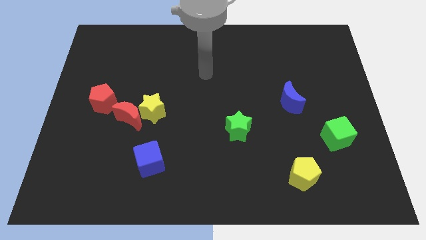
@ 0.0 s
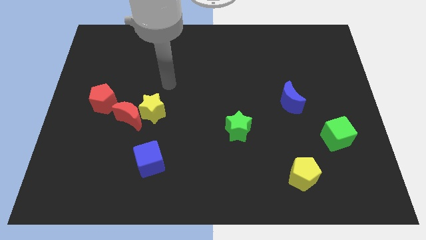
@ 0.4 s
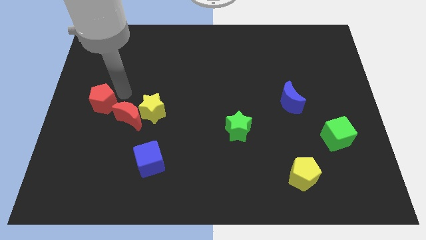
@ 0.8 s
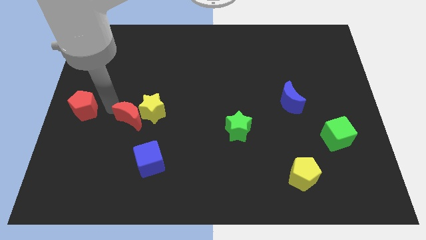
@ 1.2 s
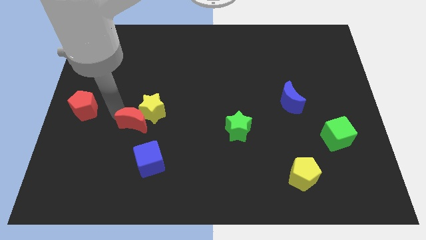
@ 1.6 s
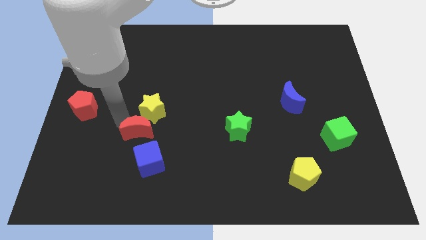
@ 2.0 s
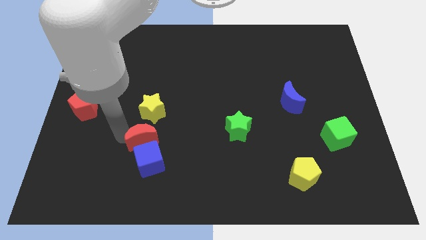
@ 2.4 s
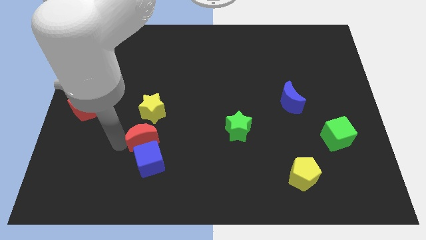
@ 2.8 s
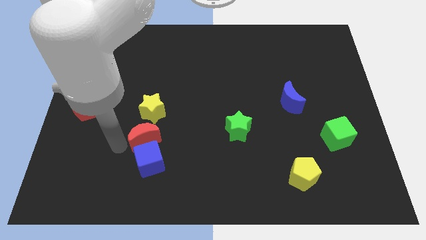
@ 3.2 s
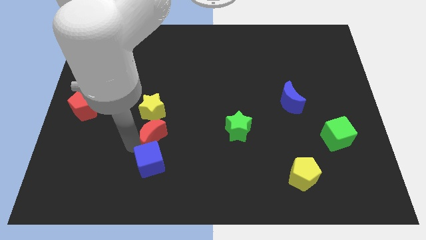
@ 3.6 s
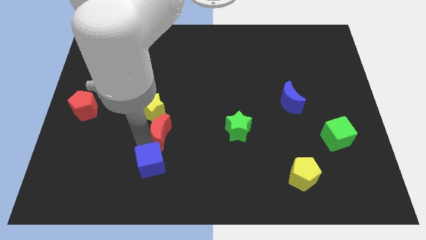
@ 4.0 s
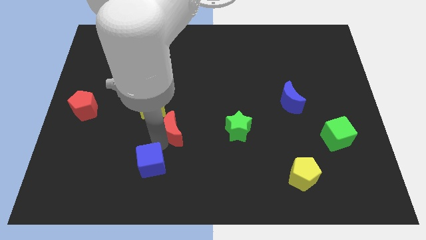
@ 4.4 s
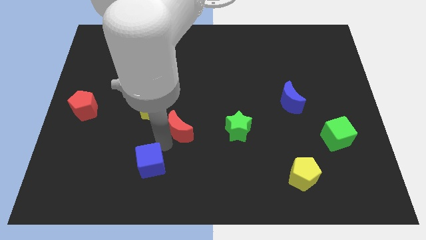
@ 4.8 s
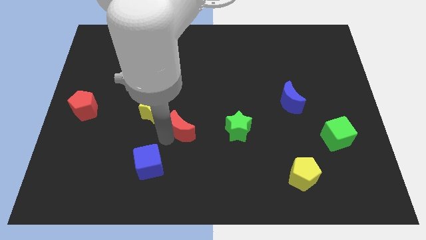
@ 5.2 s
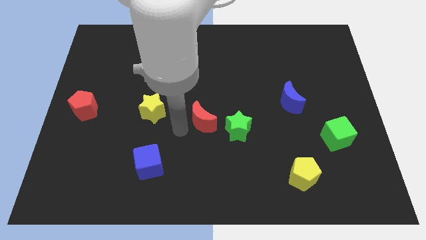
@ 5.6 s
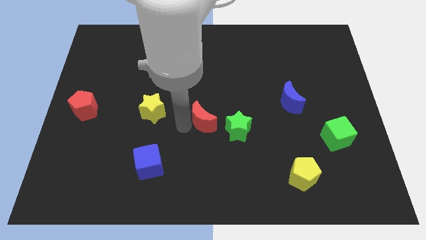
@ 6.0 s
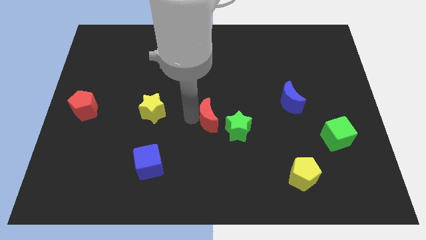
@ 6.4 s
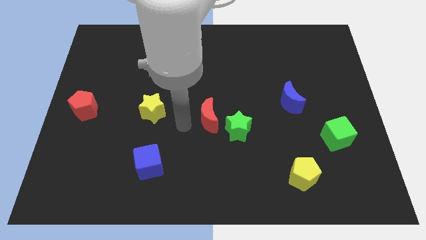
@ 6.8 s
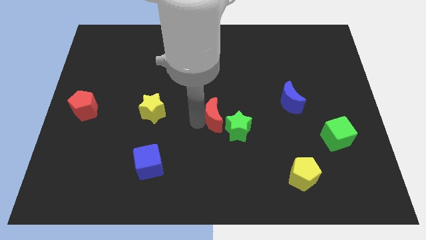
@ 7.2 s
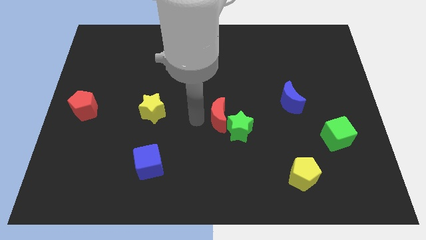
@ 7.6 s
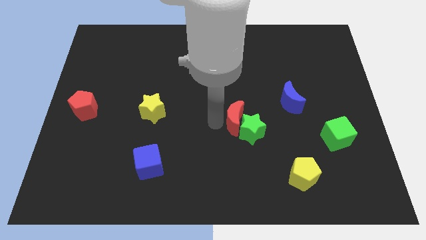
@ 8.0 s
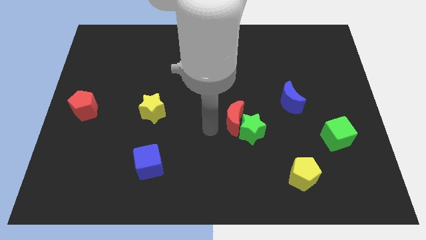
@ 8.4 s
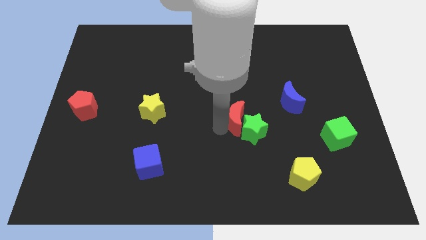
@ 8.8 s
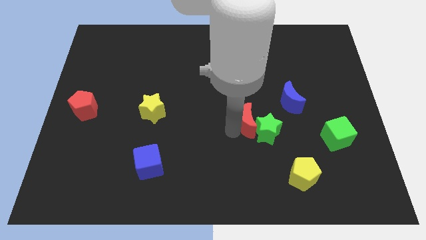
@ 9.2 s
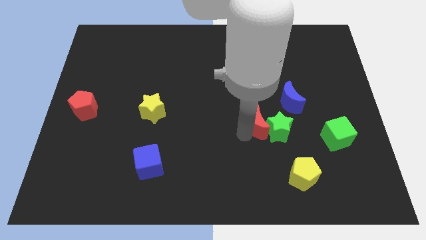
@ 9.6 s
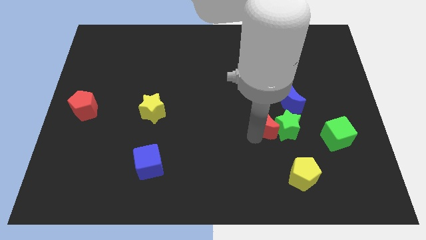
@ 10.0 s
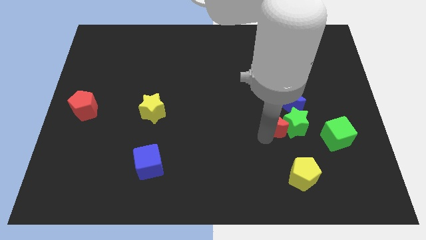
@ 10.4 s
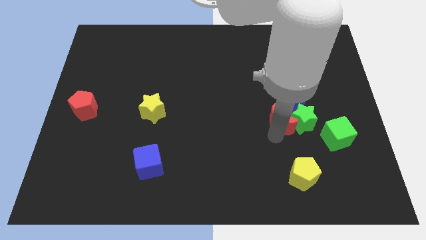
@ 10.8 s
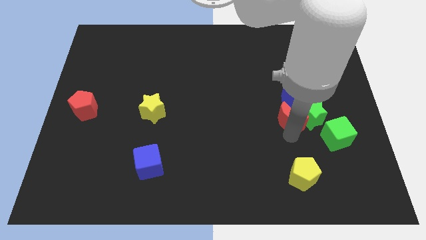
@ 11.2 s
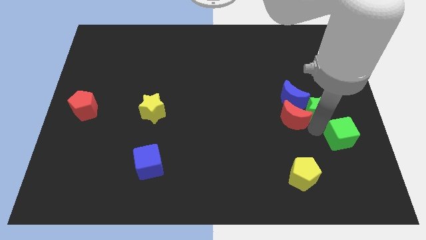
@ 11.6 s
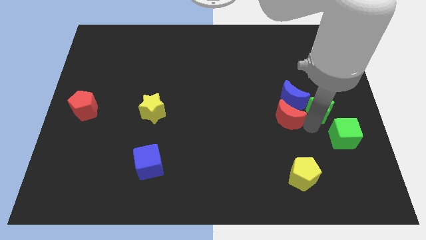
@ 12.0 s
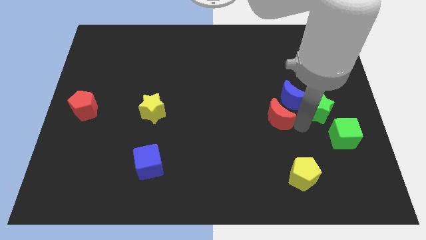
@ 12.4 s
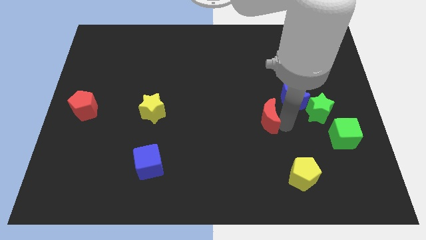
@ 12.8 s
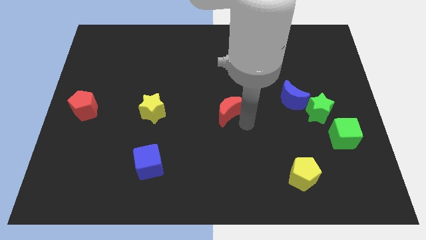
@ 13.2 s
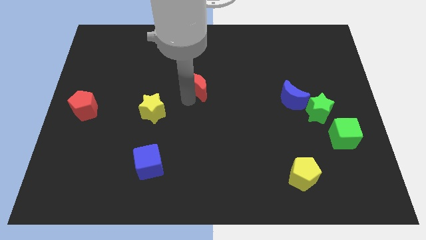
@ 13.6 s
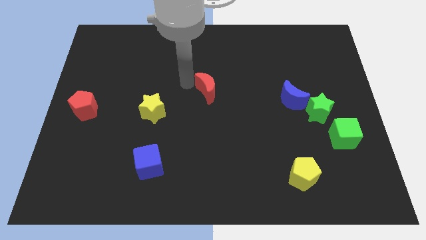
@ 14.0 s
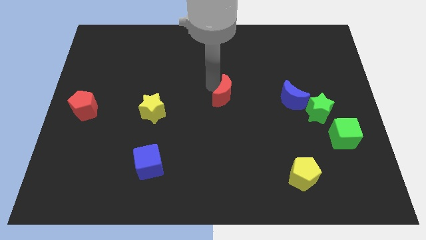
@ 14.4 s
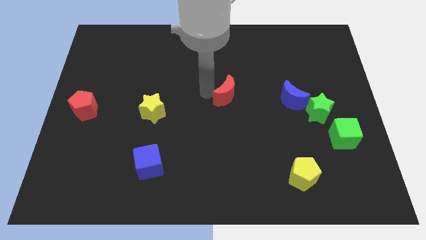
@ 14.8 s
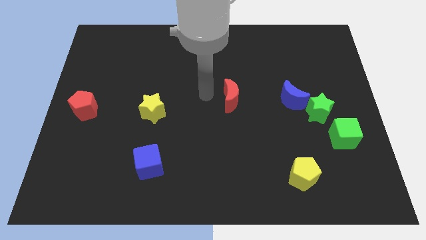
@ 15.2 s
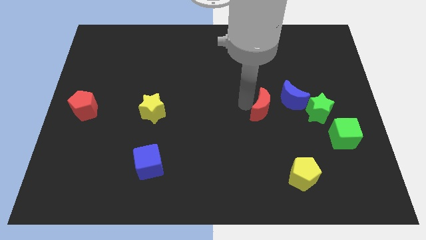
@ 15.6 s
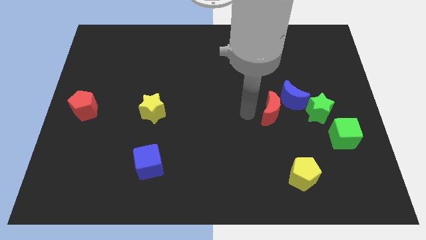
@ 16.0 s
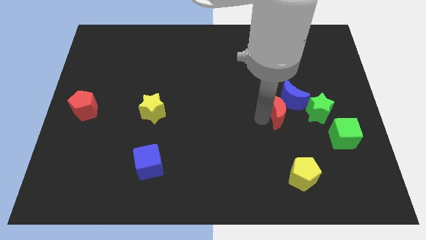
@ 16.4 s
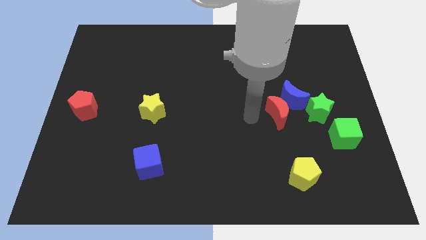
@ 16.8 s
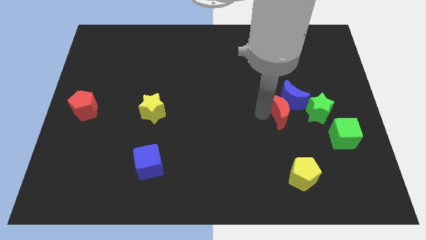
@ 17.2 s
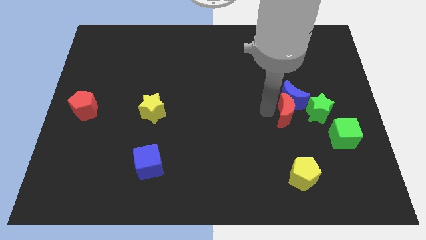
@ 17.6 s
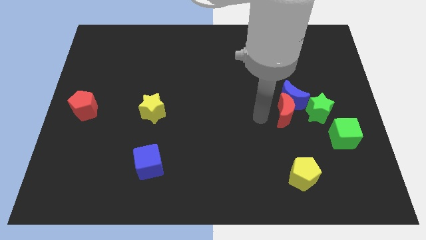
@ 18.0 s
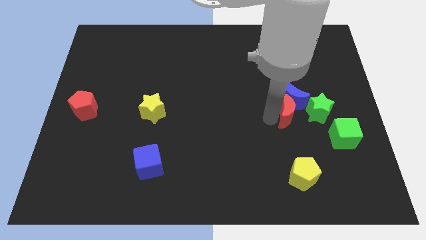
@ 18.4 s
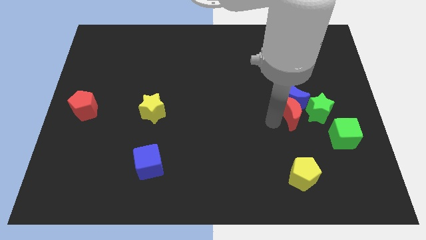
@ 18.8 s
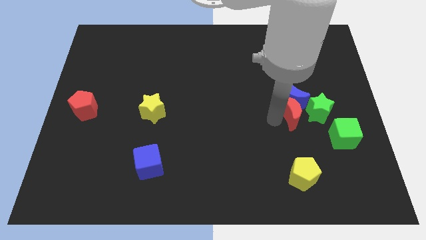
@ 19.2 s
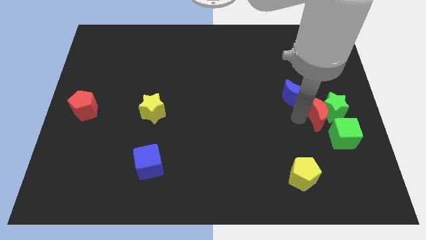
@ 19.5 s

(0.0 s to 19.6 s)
push the red moon to the top of the green cube

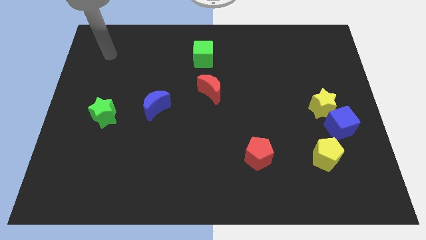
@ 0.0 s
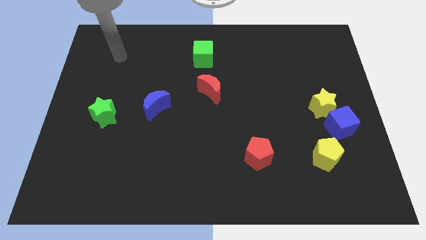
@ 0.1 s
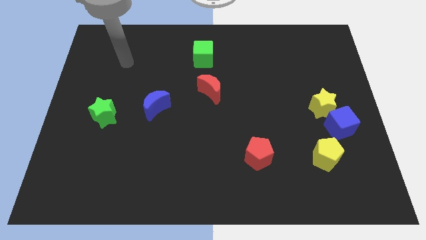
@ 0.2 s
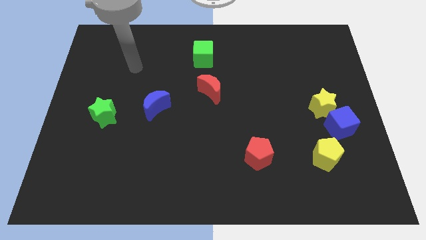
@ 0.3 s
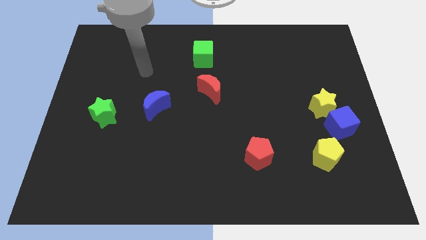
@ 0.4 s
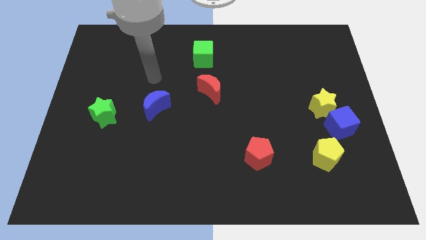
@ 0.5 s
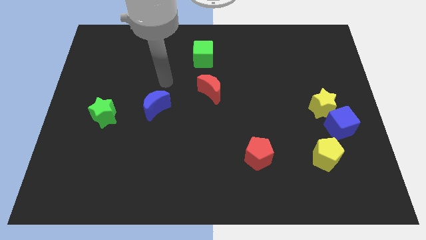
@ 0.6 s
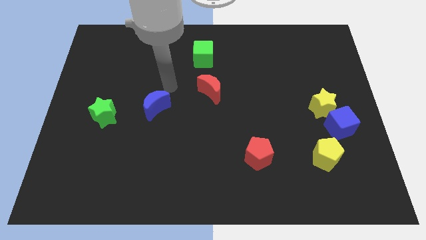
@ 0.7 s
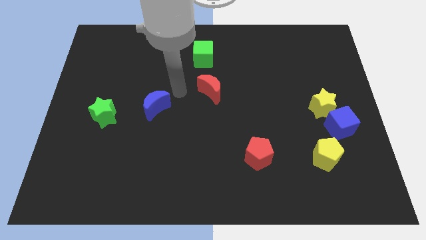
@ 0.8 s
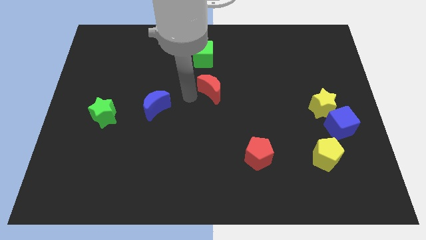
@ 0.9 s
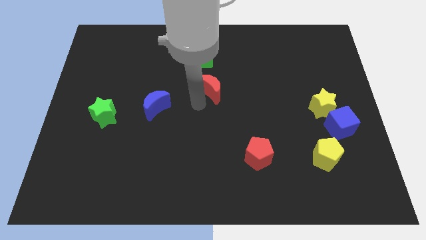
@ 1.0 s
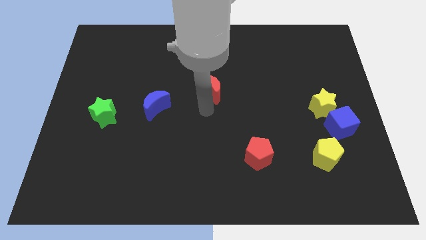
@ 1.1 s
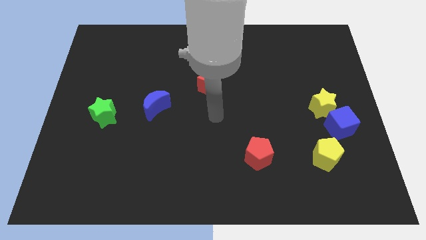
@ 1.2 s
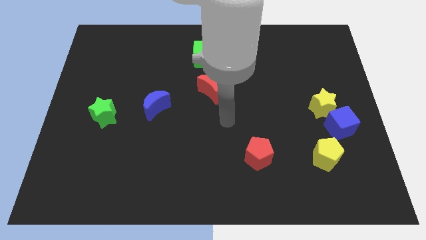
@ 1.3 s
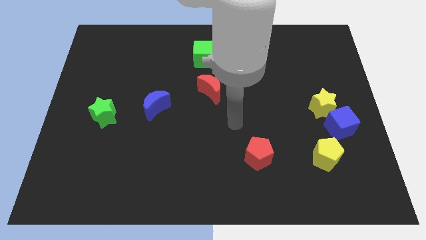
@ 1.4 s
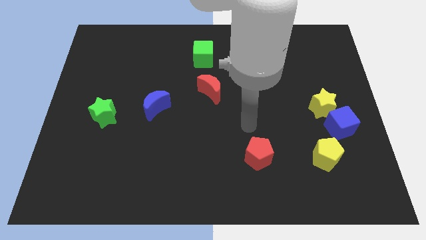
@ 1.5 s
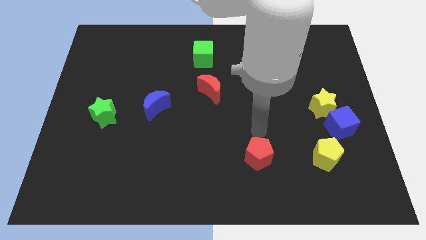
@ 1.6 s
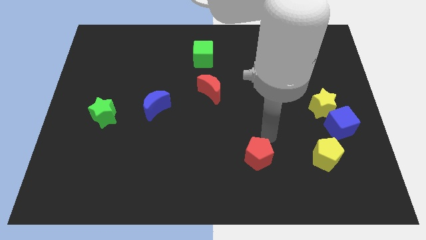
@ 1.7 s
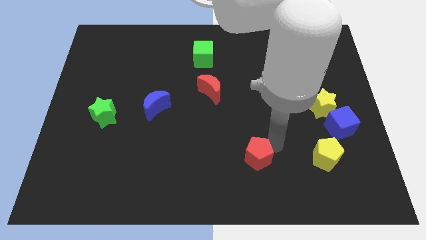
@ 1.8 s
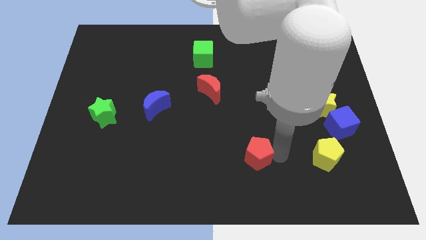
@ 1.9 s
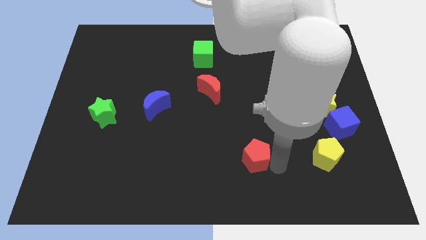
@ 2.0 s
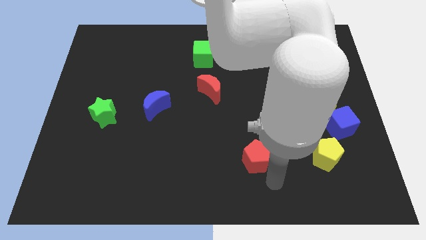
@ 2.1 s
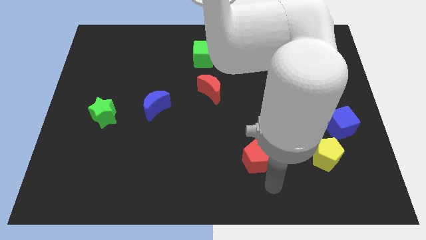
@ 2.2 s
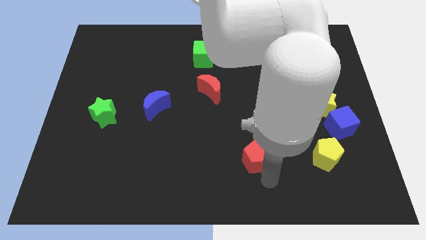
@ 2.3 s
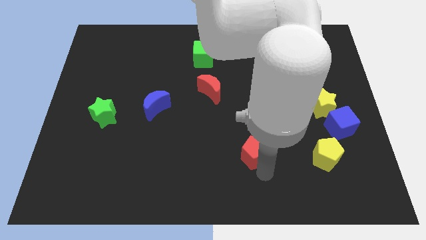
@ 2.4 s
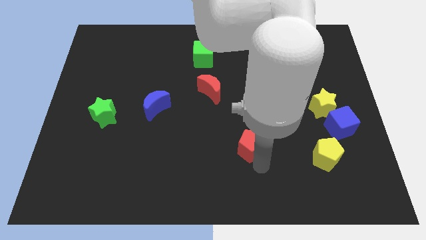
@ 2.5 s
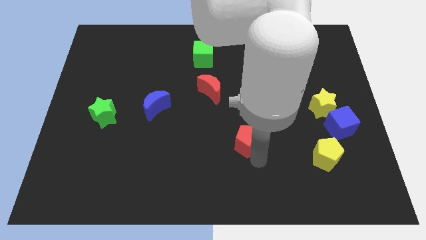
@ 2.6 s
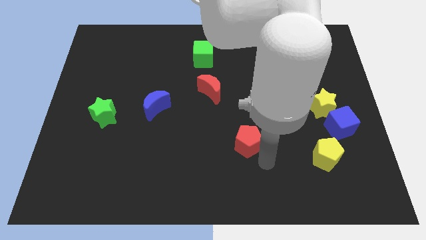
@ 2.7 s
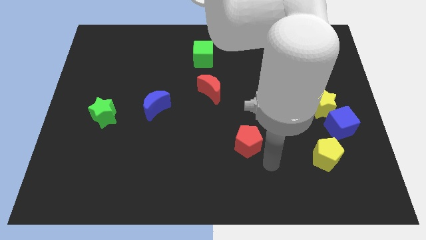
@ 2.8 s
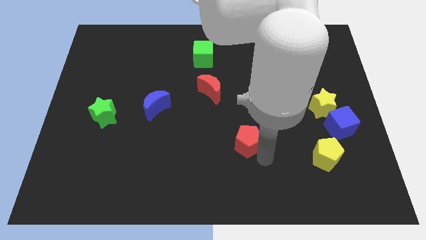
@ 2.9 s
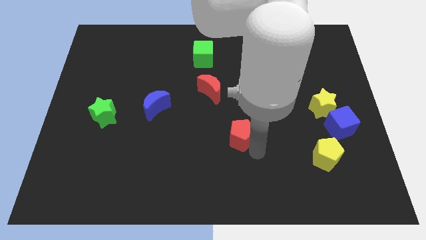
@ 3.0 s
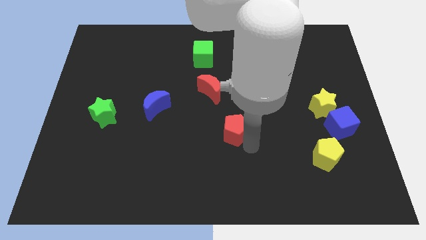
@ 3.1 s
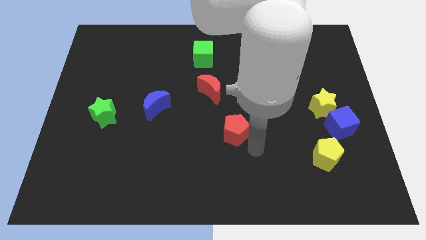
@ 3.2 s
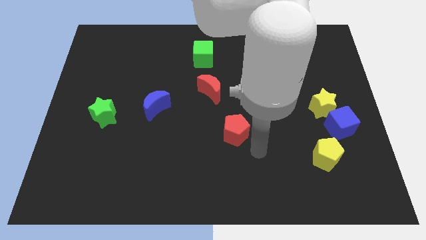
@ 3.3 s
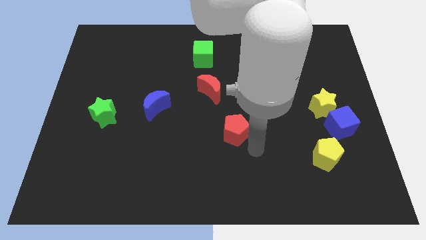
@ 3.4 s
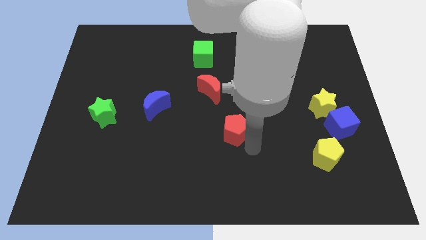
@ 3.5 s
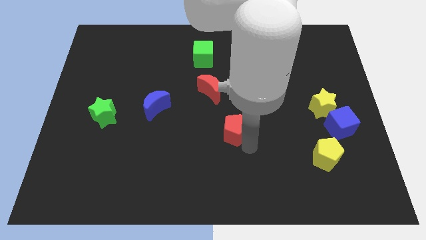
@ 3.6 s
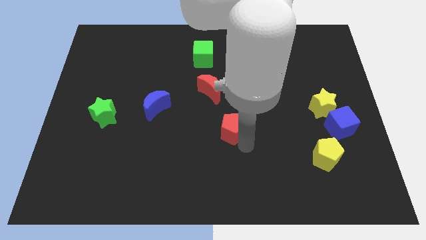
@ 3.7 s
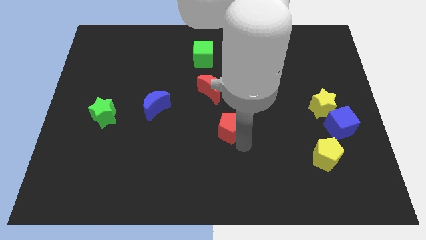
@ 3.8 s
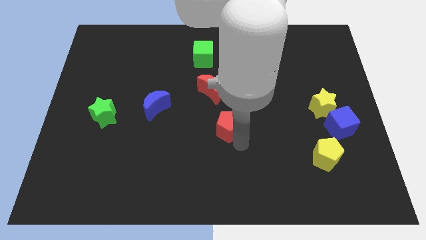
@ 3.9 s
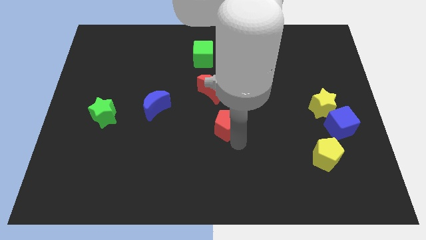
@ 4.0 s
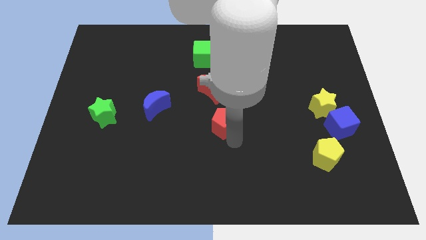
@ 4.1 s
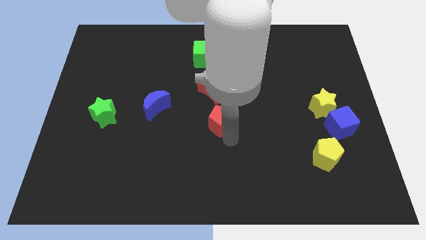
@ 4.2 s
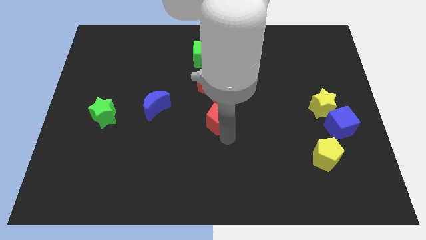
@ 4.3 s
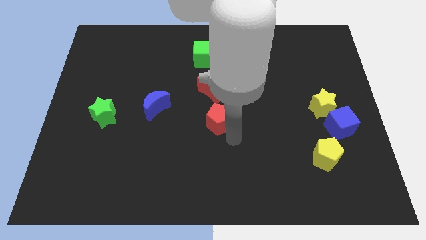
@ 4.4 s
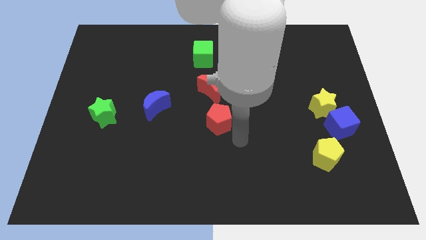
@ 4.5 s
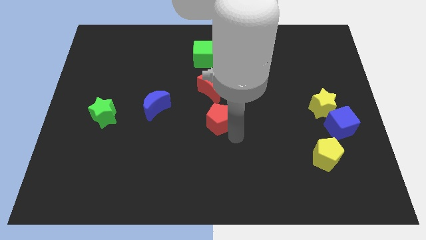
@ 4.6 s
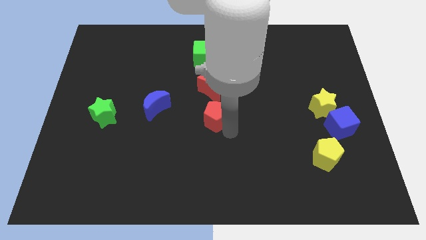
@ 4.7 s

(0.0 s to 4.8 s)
move the red pentagon to the right of the blue moon
